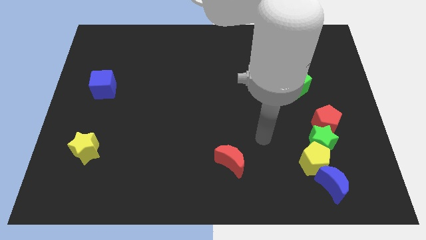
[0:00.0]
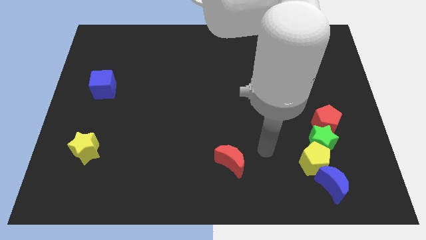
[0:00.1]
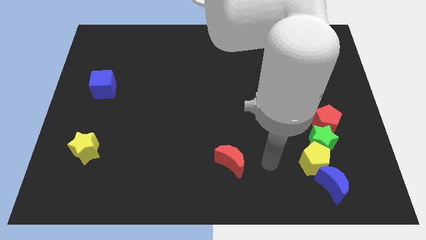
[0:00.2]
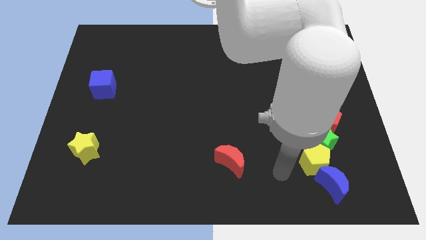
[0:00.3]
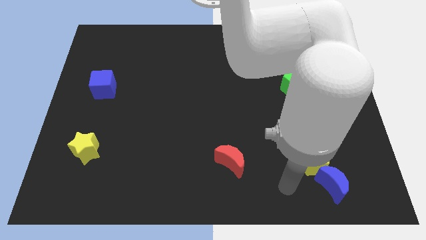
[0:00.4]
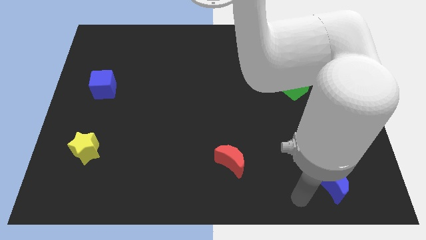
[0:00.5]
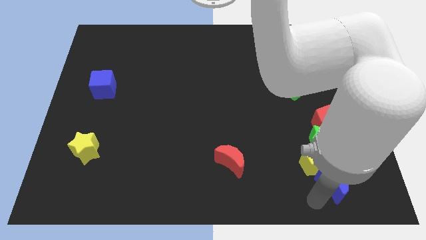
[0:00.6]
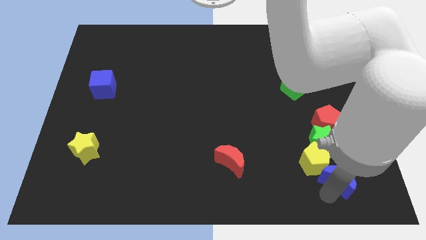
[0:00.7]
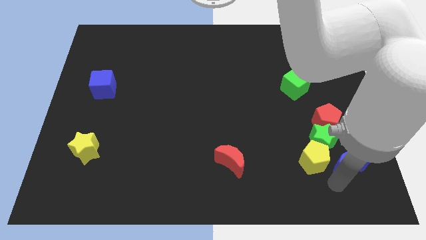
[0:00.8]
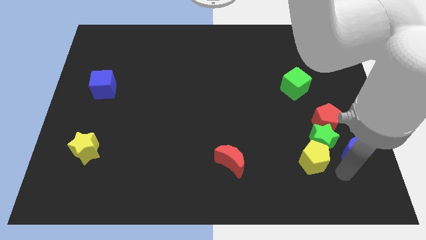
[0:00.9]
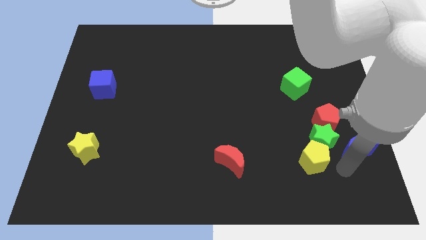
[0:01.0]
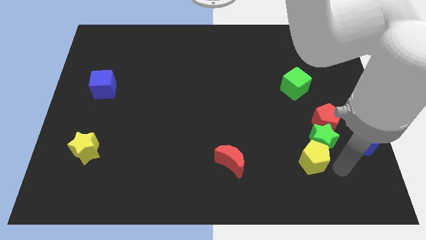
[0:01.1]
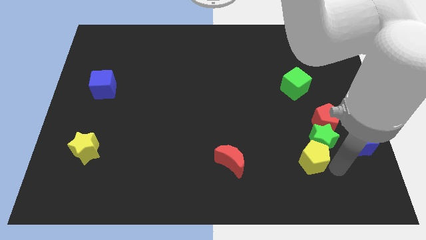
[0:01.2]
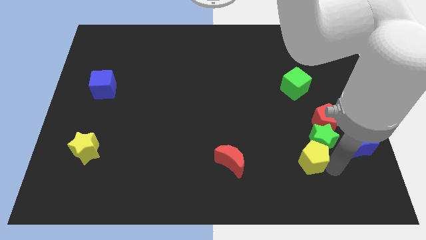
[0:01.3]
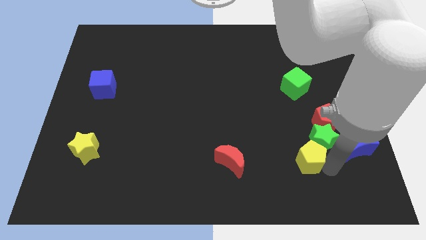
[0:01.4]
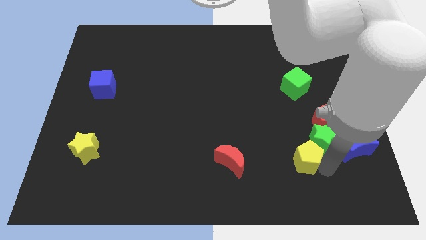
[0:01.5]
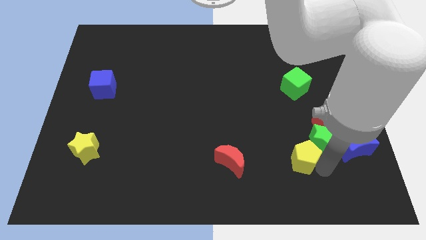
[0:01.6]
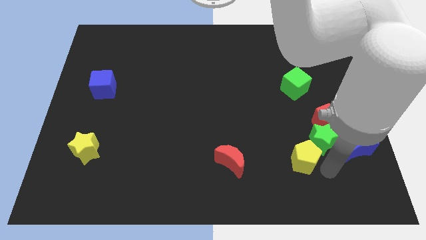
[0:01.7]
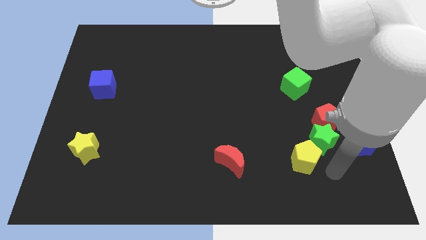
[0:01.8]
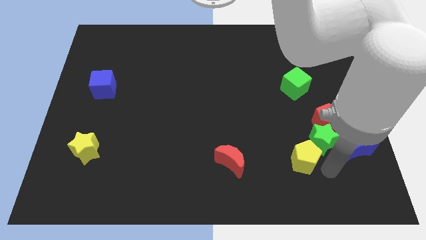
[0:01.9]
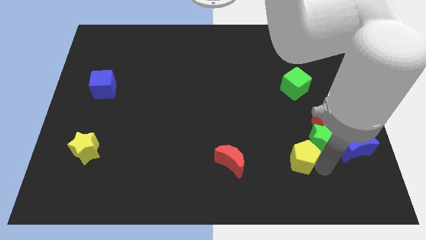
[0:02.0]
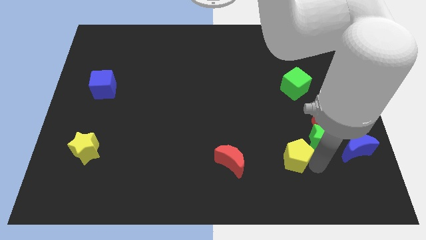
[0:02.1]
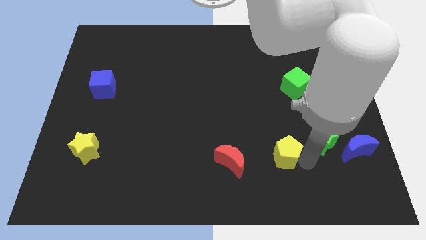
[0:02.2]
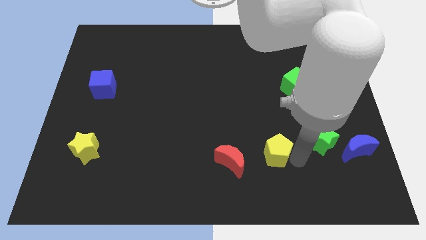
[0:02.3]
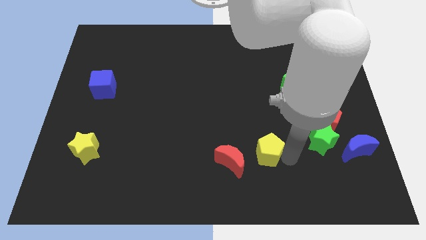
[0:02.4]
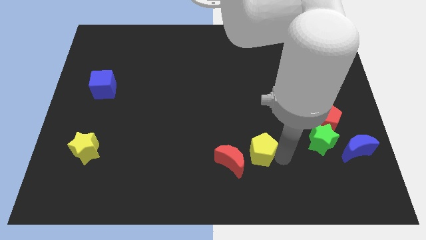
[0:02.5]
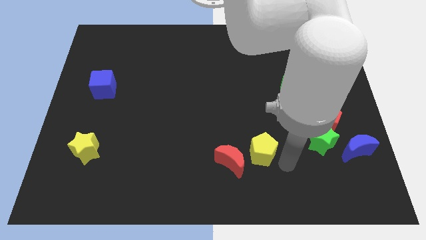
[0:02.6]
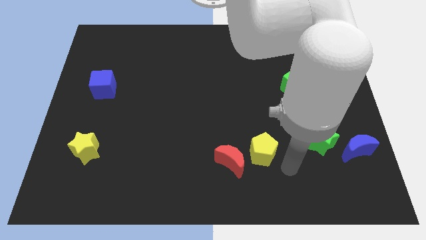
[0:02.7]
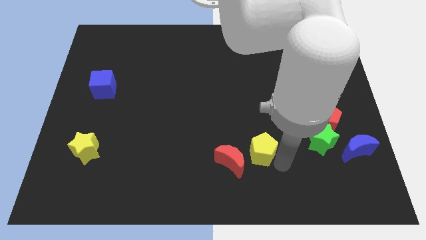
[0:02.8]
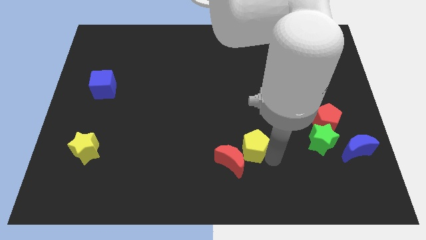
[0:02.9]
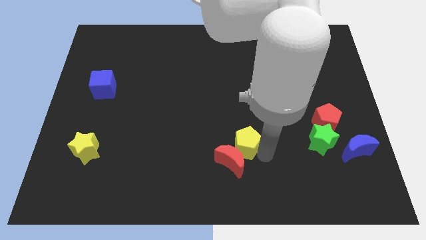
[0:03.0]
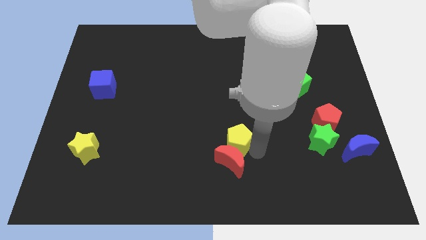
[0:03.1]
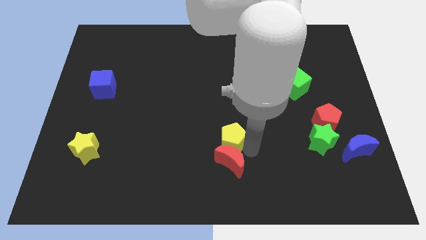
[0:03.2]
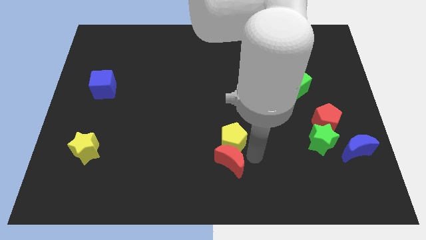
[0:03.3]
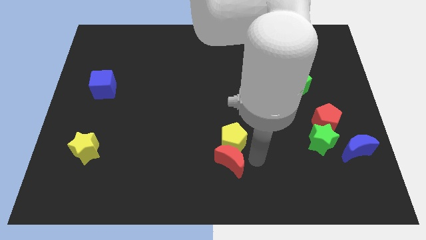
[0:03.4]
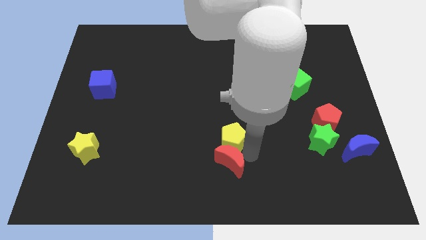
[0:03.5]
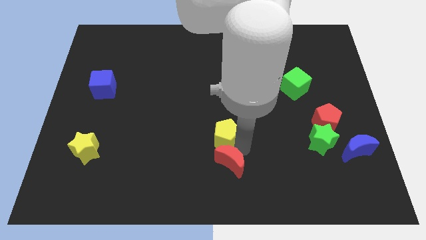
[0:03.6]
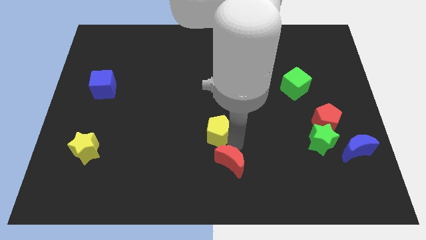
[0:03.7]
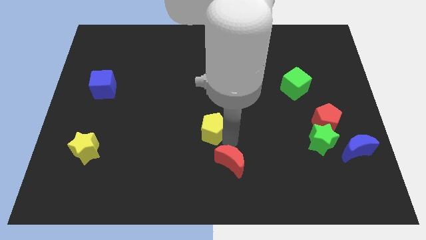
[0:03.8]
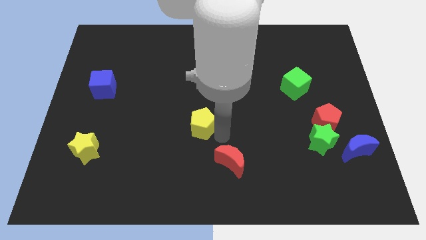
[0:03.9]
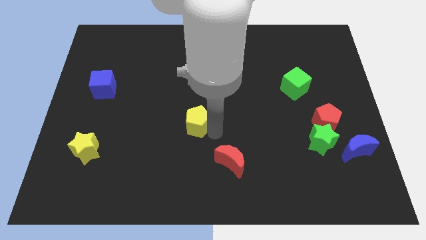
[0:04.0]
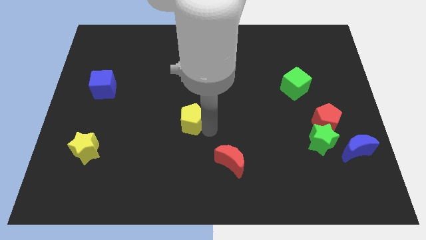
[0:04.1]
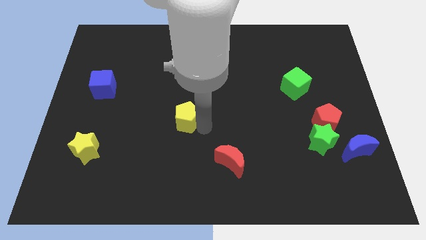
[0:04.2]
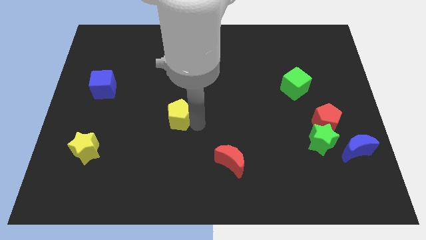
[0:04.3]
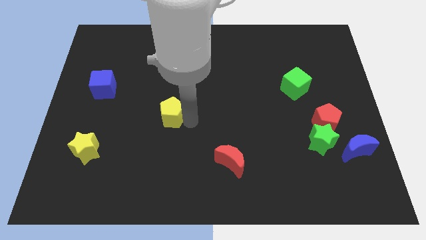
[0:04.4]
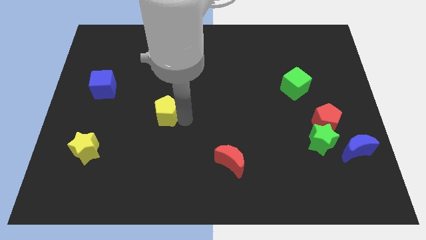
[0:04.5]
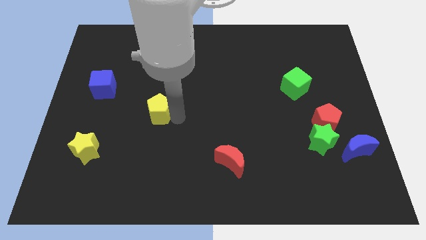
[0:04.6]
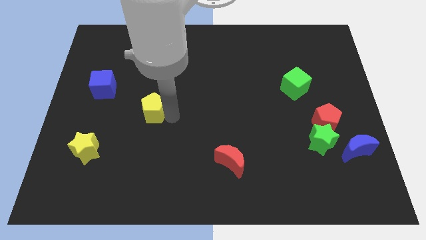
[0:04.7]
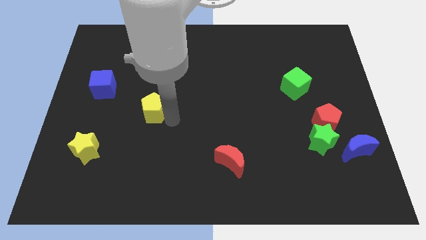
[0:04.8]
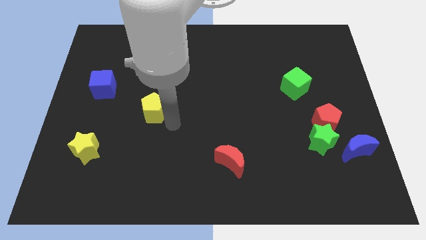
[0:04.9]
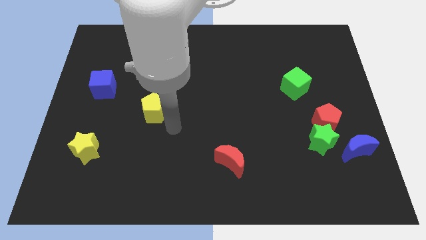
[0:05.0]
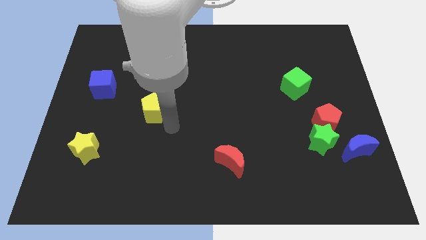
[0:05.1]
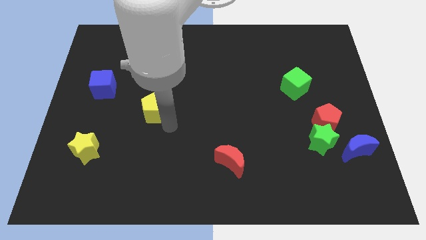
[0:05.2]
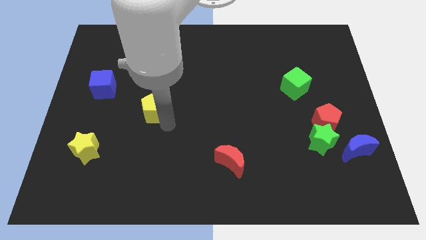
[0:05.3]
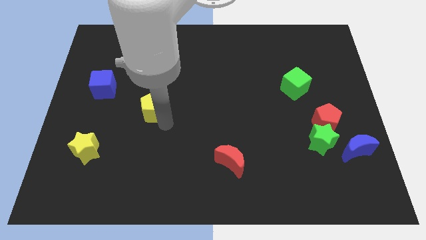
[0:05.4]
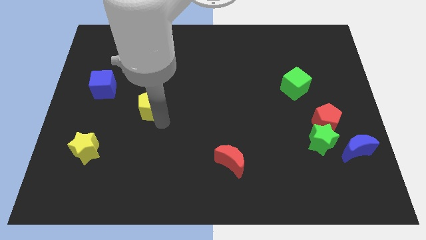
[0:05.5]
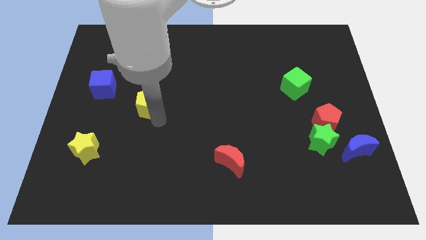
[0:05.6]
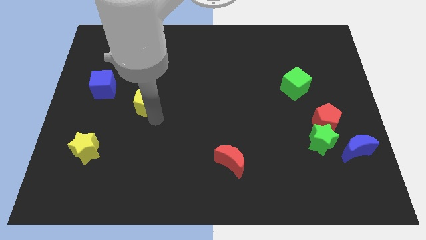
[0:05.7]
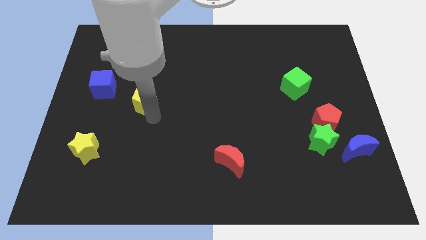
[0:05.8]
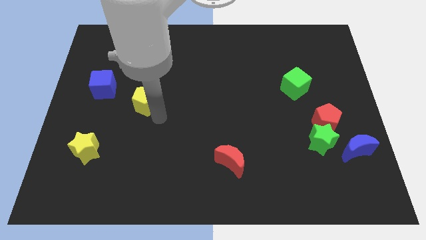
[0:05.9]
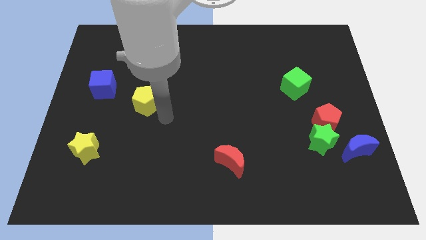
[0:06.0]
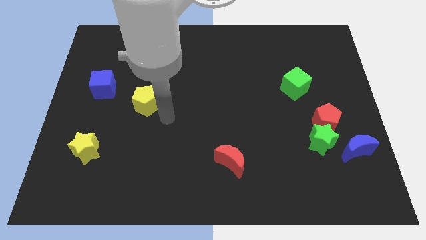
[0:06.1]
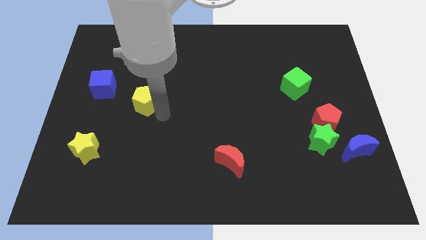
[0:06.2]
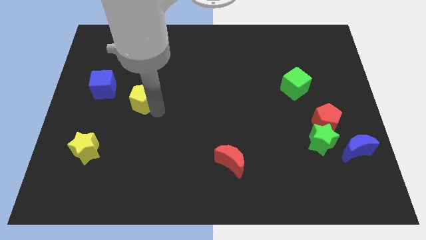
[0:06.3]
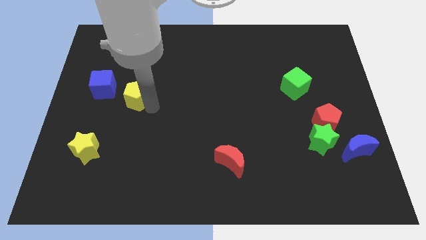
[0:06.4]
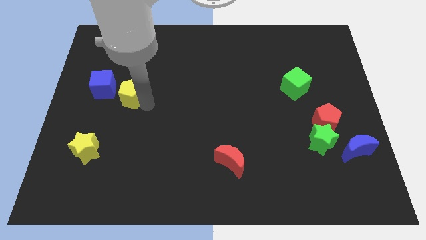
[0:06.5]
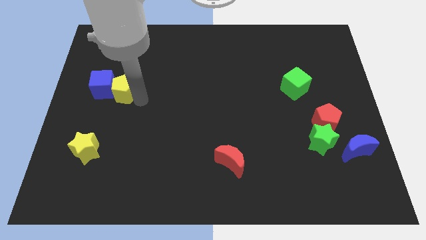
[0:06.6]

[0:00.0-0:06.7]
put the yellow pentagon close to the blue cube
